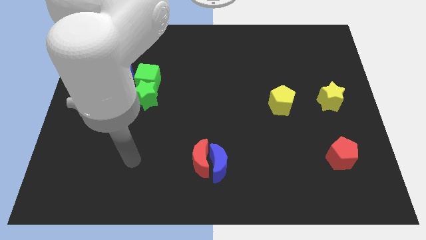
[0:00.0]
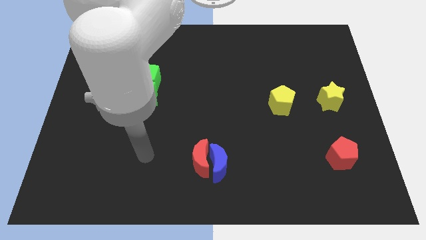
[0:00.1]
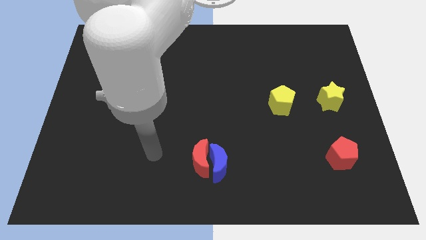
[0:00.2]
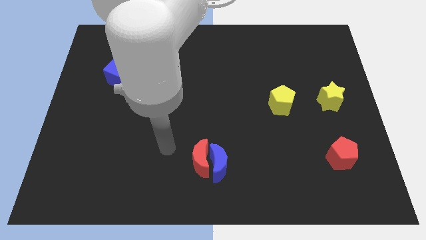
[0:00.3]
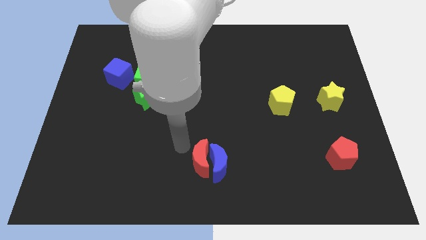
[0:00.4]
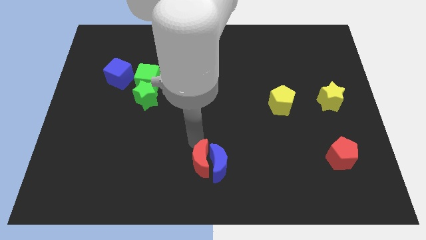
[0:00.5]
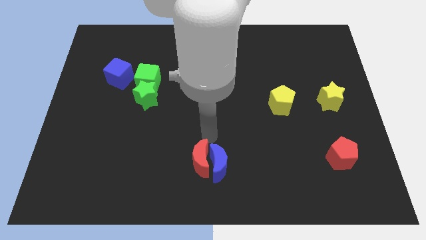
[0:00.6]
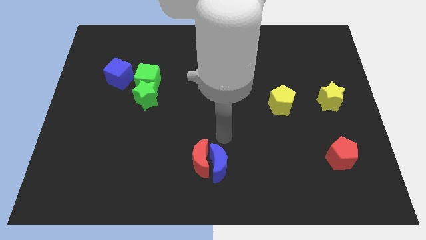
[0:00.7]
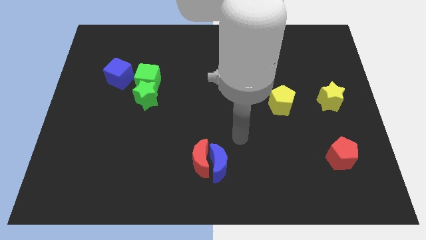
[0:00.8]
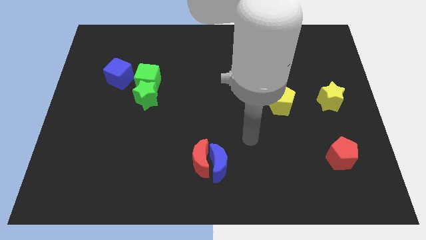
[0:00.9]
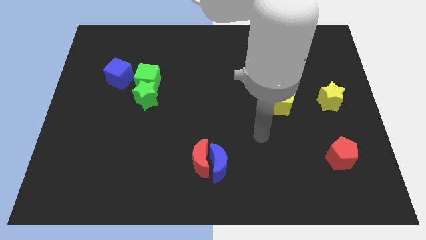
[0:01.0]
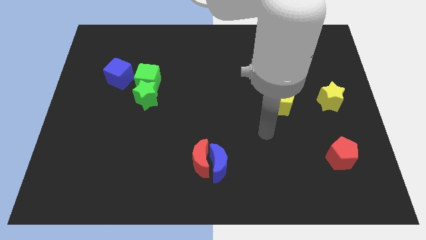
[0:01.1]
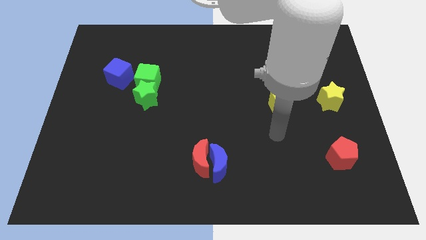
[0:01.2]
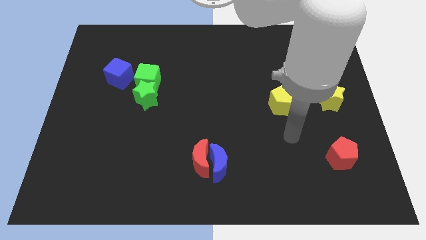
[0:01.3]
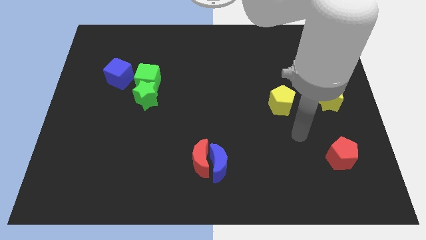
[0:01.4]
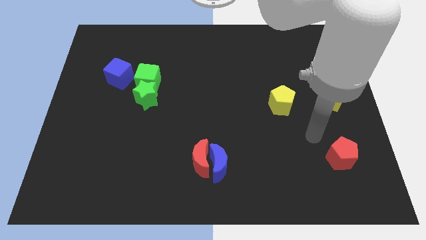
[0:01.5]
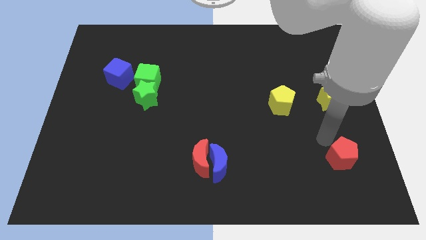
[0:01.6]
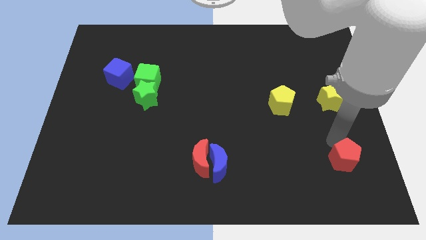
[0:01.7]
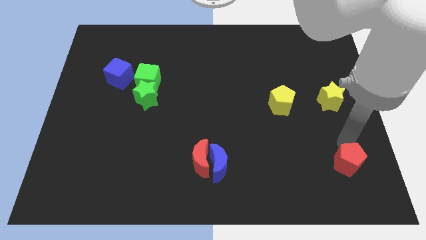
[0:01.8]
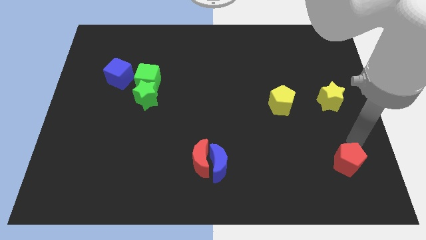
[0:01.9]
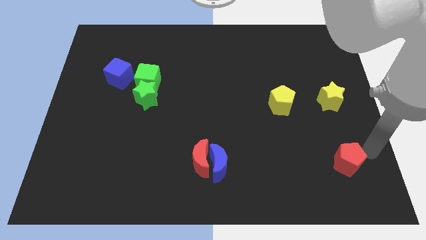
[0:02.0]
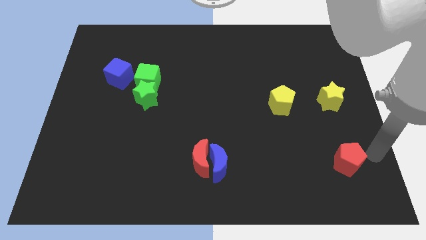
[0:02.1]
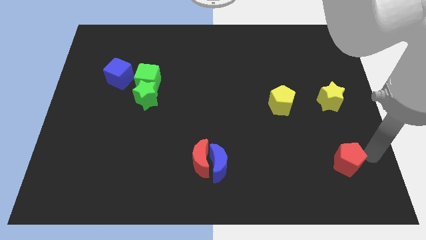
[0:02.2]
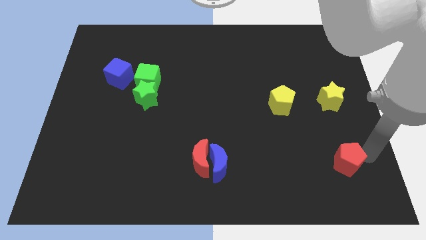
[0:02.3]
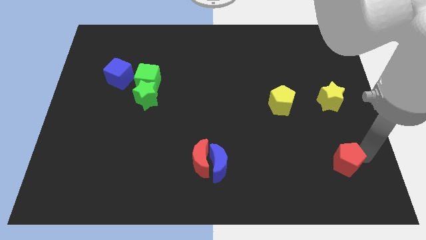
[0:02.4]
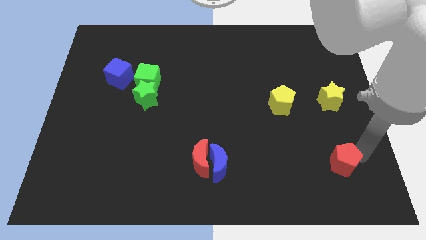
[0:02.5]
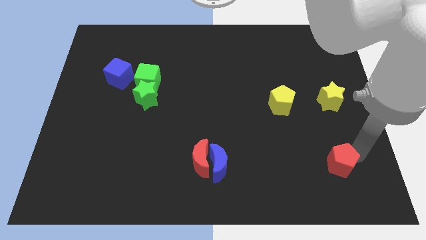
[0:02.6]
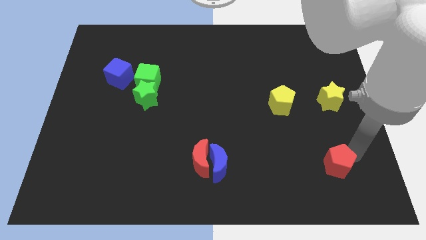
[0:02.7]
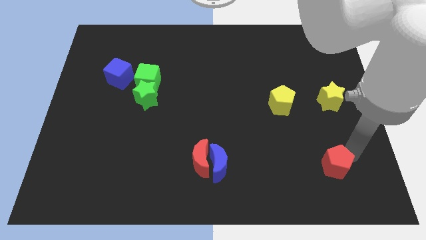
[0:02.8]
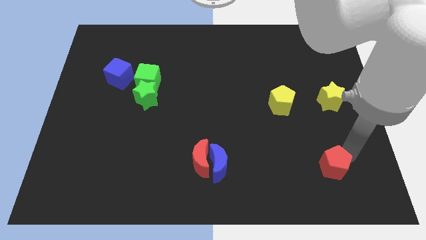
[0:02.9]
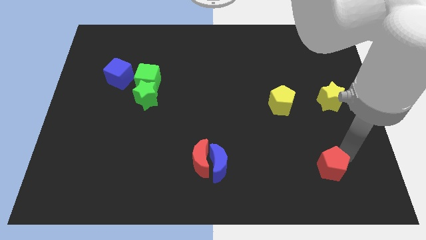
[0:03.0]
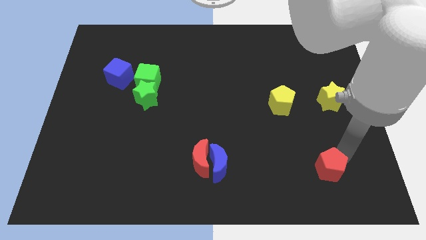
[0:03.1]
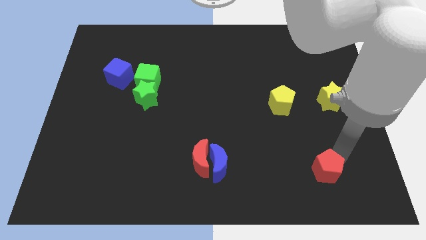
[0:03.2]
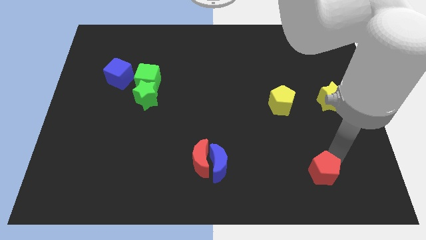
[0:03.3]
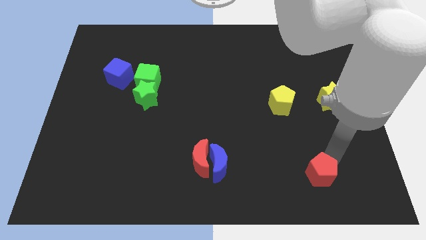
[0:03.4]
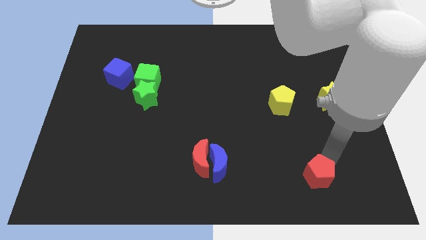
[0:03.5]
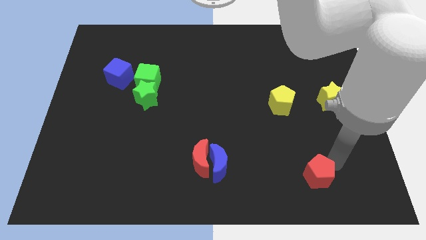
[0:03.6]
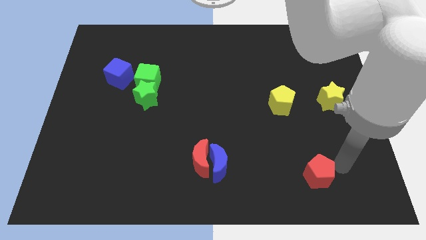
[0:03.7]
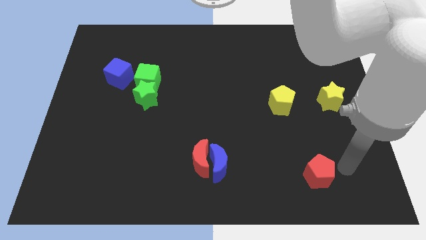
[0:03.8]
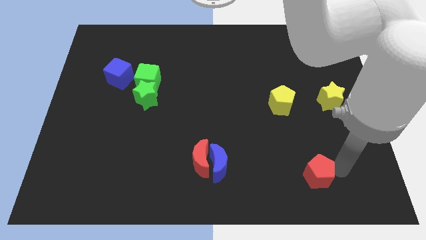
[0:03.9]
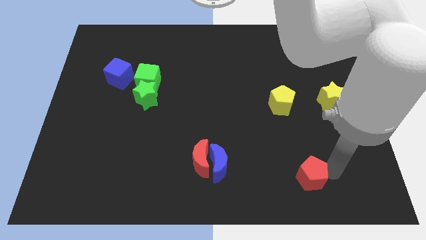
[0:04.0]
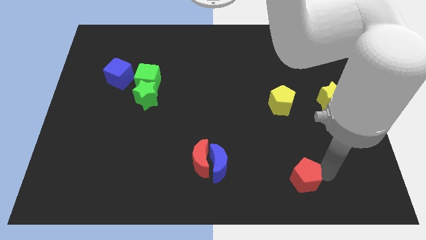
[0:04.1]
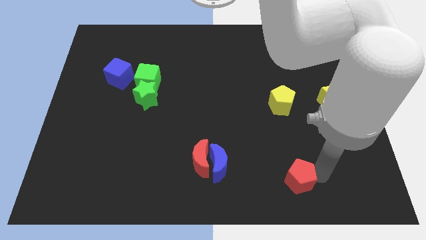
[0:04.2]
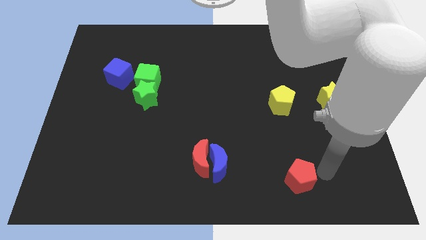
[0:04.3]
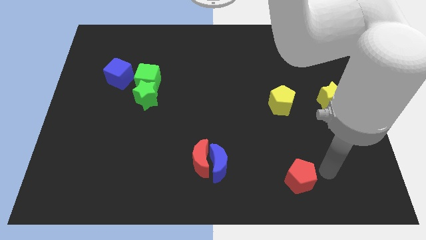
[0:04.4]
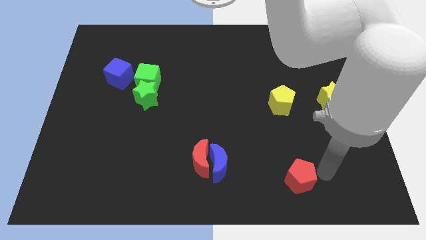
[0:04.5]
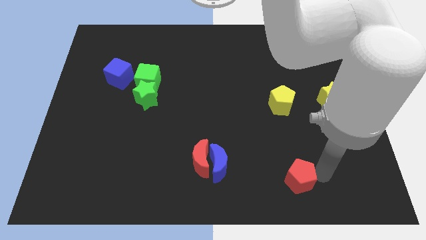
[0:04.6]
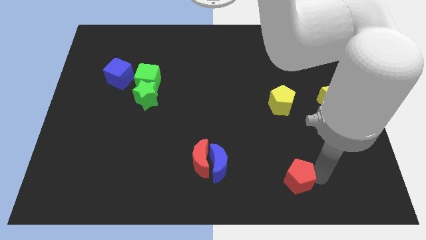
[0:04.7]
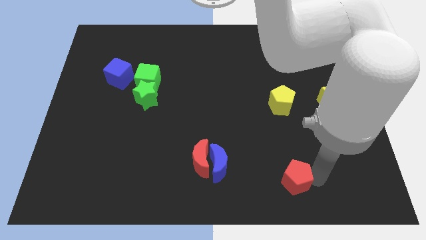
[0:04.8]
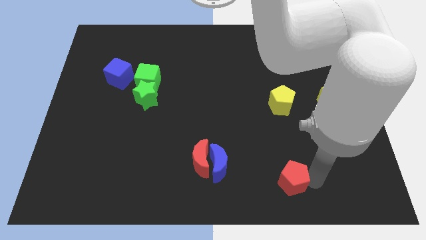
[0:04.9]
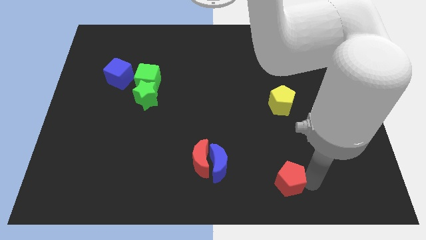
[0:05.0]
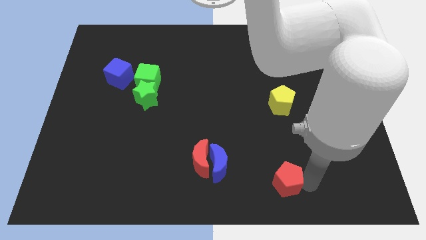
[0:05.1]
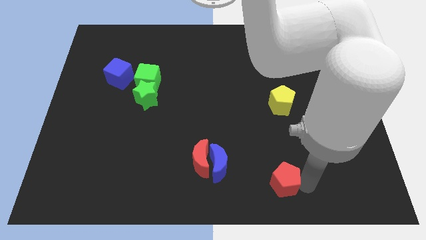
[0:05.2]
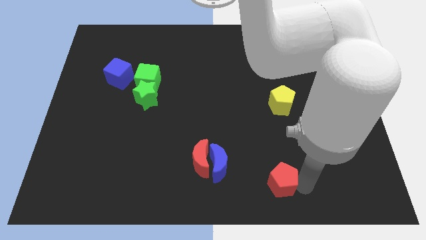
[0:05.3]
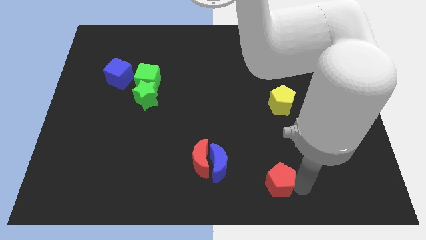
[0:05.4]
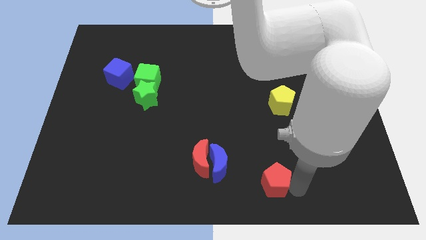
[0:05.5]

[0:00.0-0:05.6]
move the red pentagon to the bottom side

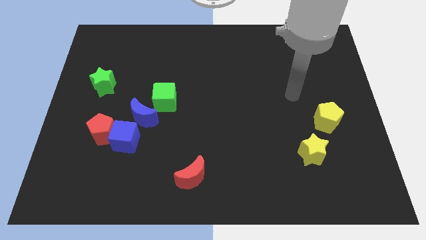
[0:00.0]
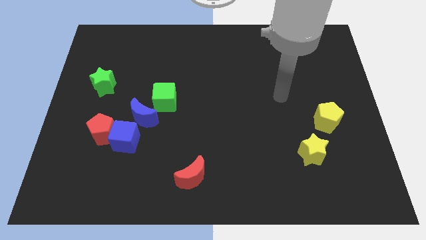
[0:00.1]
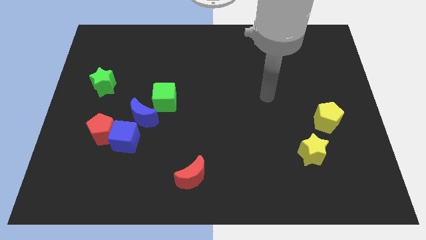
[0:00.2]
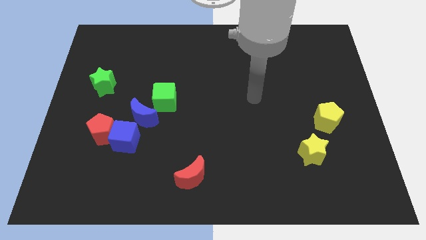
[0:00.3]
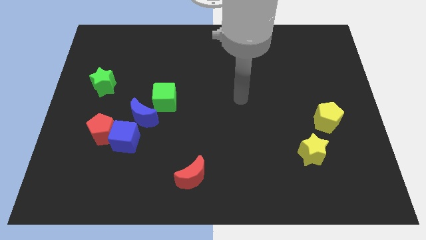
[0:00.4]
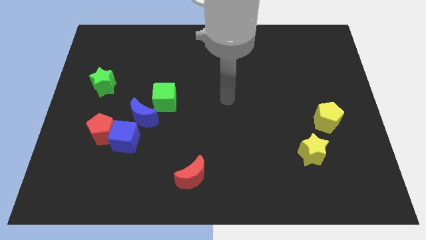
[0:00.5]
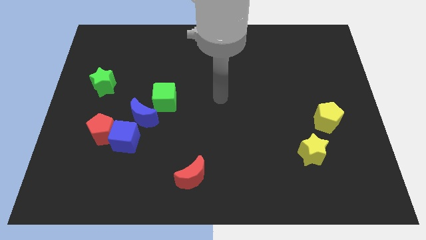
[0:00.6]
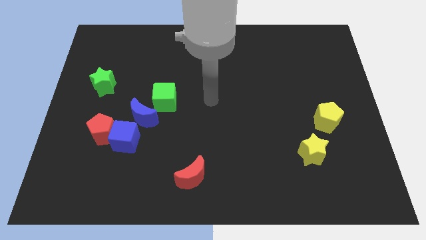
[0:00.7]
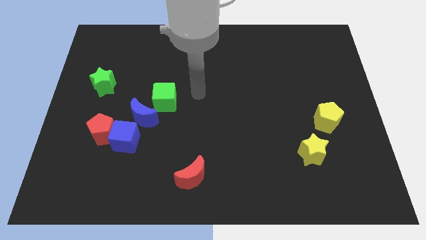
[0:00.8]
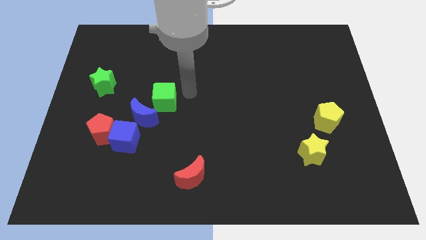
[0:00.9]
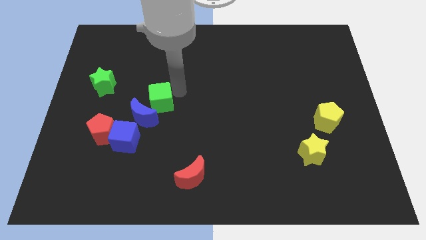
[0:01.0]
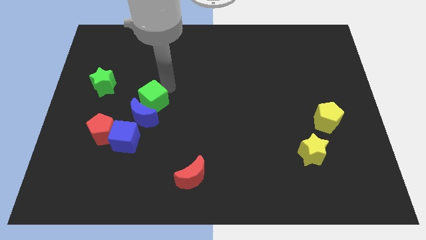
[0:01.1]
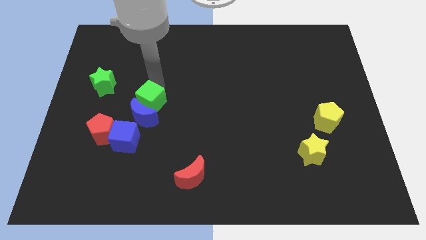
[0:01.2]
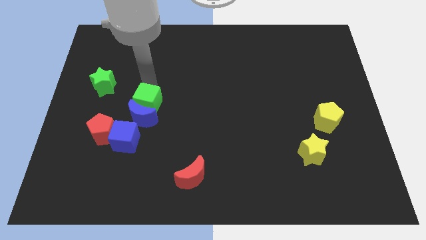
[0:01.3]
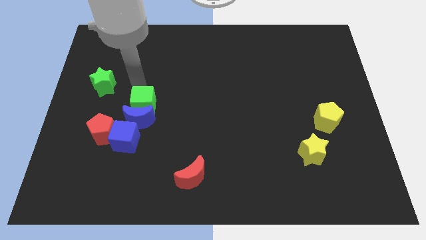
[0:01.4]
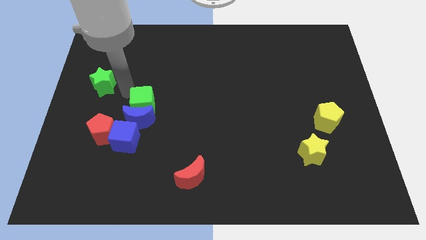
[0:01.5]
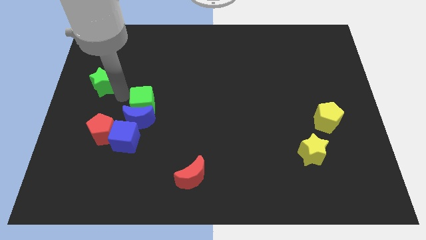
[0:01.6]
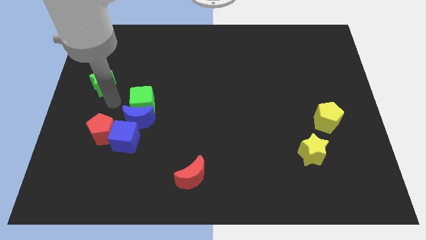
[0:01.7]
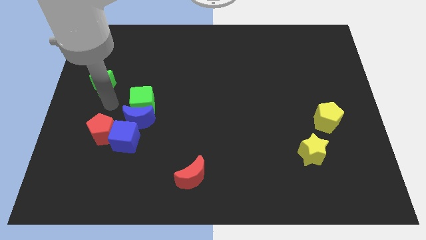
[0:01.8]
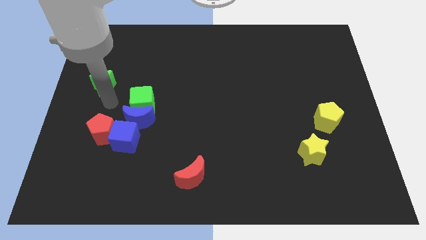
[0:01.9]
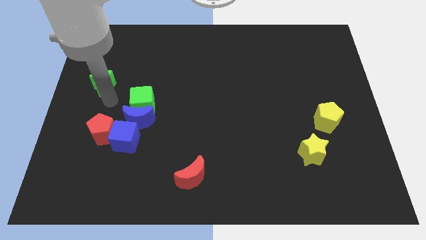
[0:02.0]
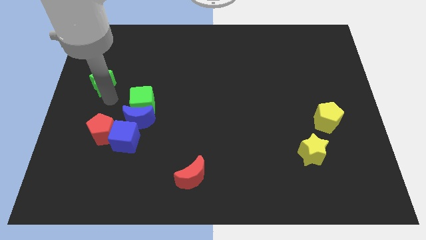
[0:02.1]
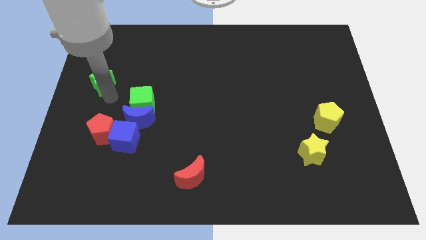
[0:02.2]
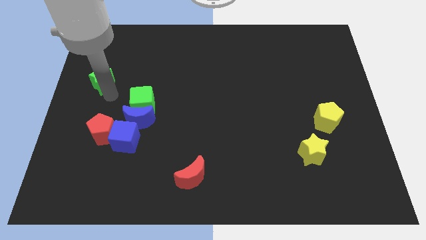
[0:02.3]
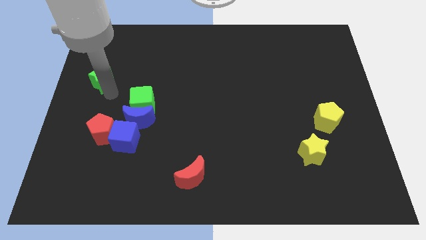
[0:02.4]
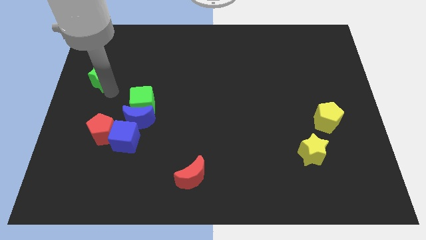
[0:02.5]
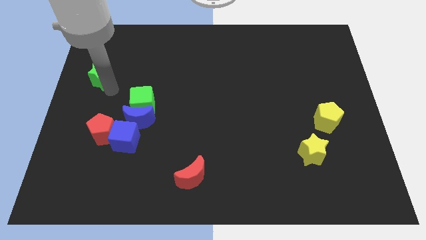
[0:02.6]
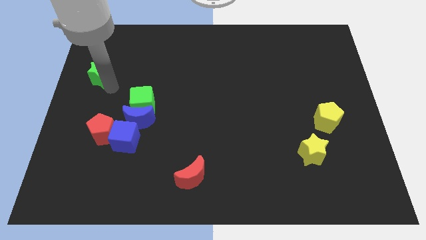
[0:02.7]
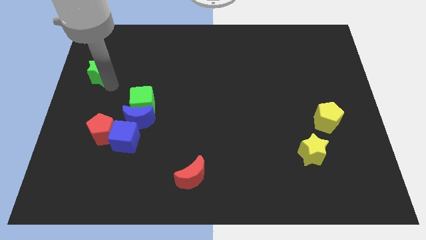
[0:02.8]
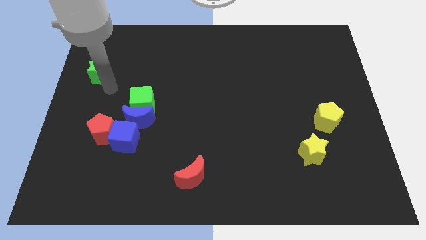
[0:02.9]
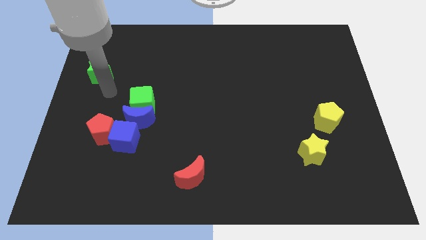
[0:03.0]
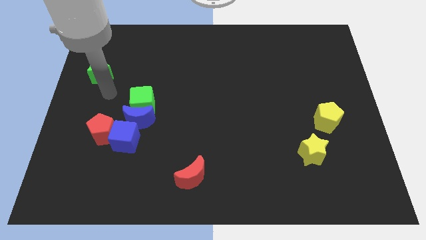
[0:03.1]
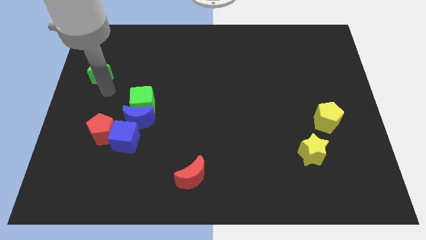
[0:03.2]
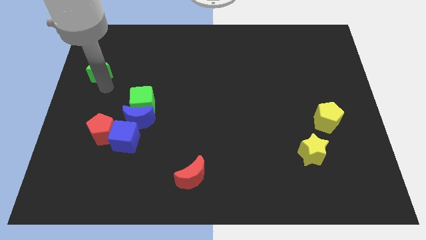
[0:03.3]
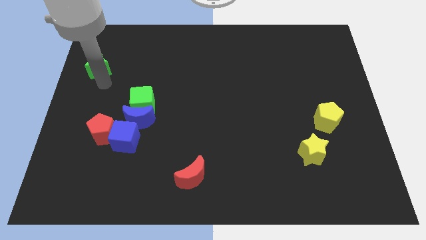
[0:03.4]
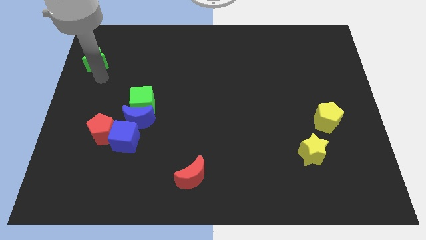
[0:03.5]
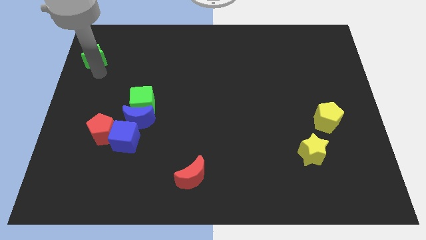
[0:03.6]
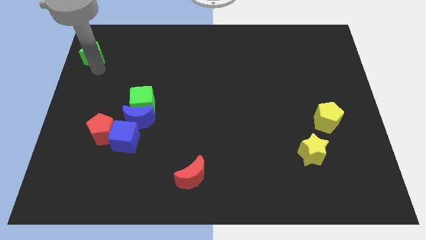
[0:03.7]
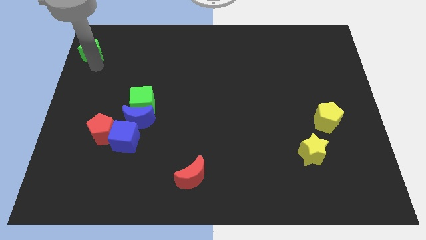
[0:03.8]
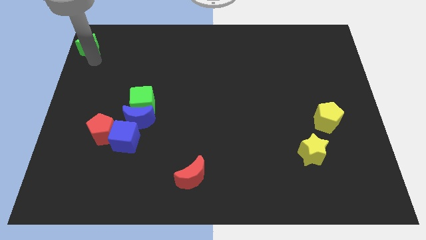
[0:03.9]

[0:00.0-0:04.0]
move the green star to the top left corner
